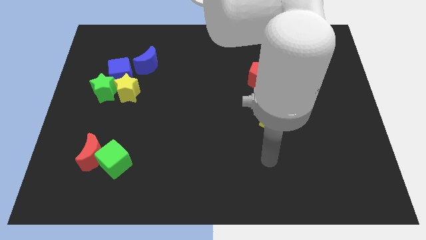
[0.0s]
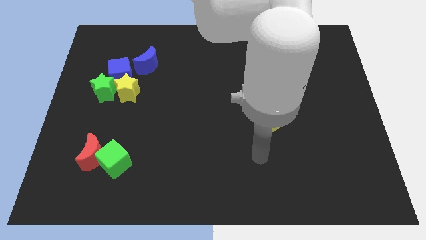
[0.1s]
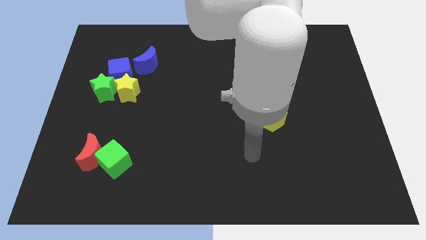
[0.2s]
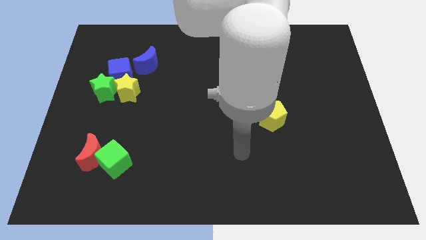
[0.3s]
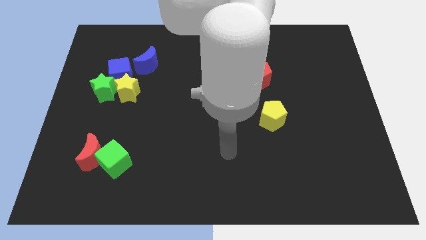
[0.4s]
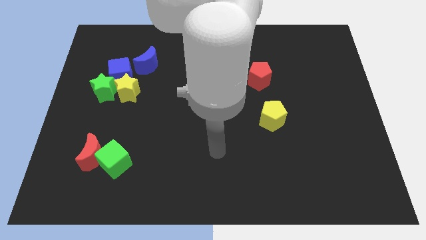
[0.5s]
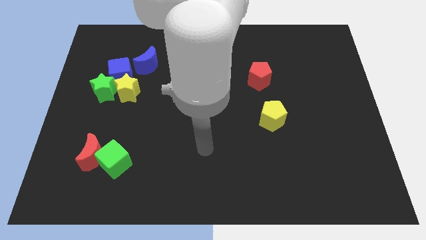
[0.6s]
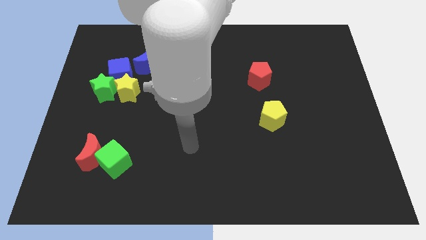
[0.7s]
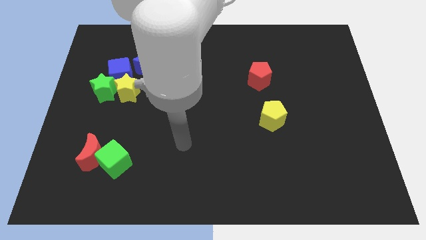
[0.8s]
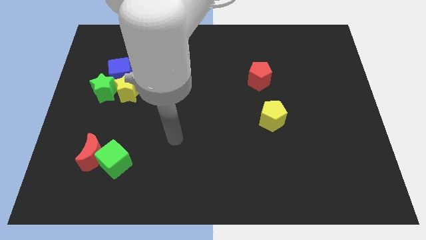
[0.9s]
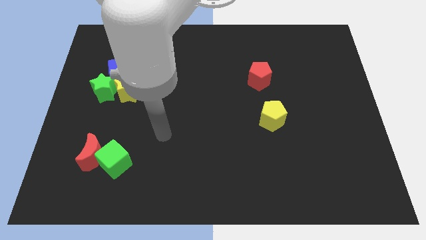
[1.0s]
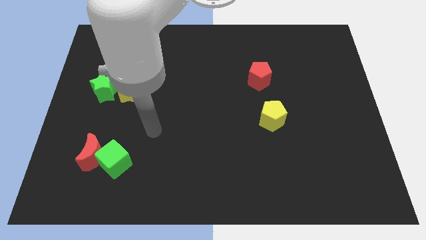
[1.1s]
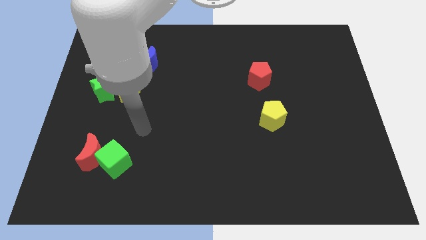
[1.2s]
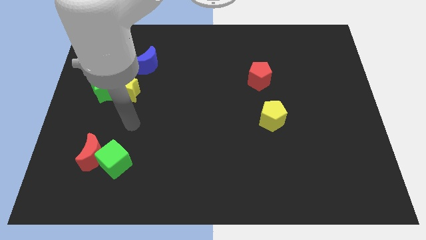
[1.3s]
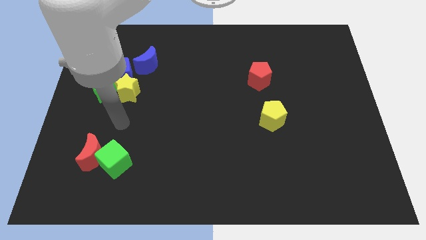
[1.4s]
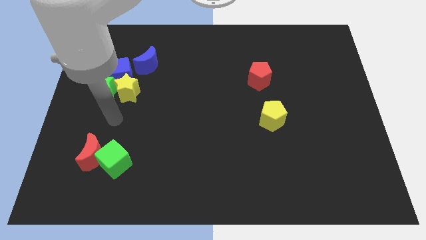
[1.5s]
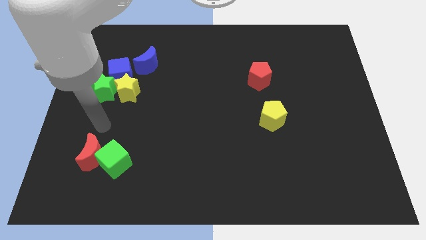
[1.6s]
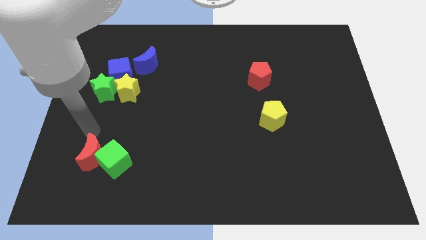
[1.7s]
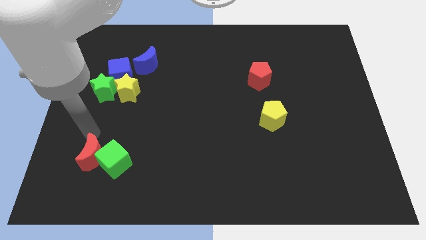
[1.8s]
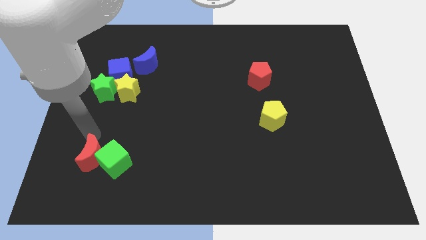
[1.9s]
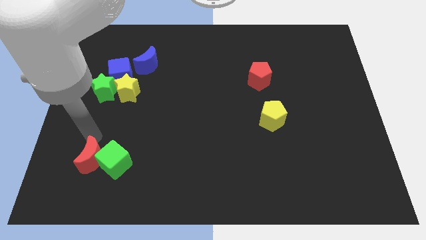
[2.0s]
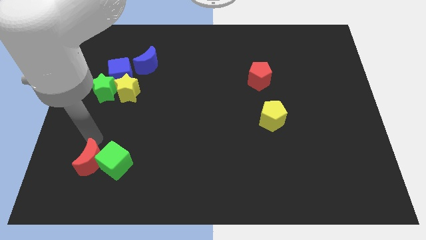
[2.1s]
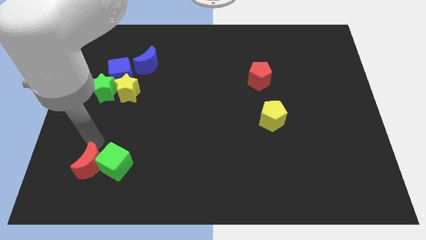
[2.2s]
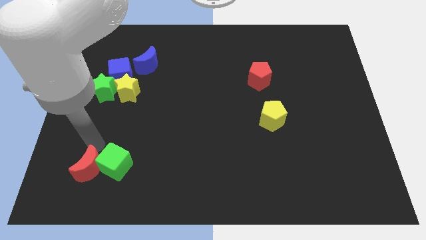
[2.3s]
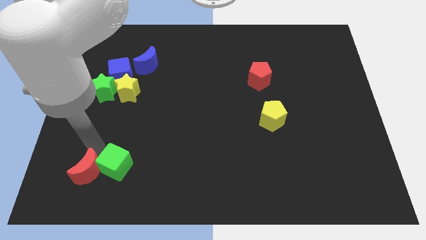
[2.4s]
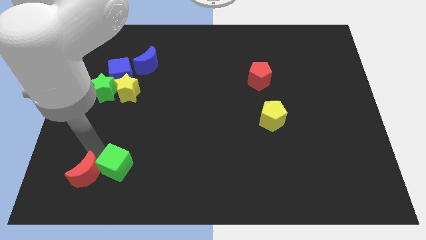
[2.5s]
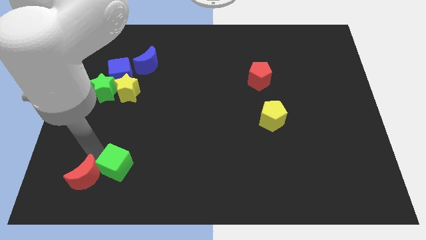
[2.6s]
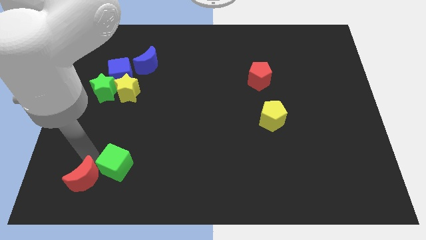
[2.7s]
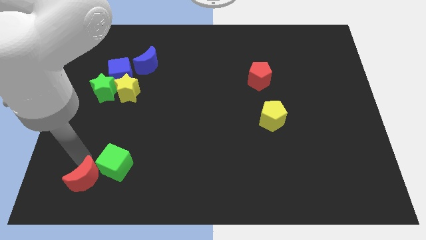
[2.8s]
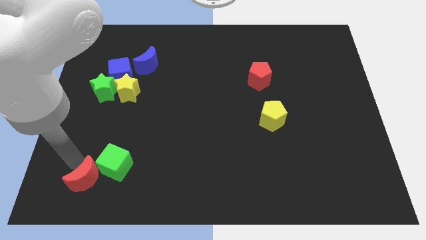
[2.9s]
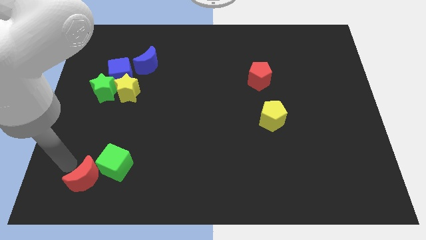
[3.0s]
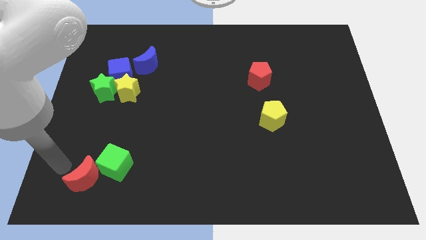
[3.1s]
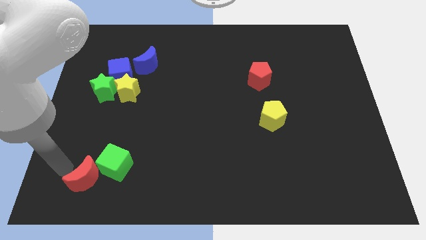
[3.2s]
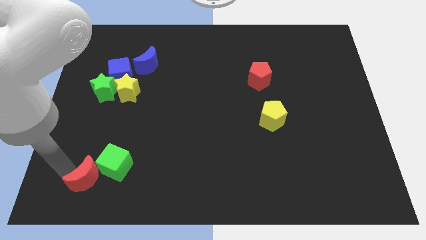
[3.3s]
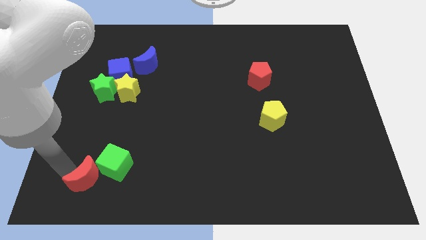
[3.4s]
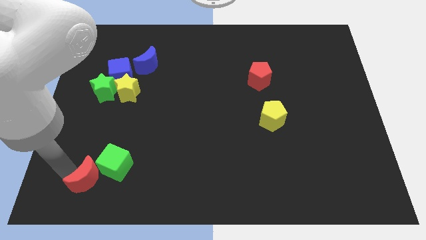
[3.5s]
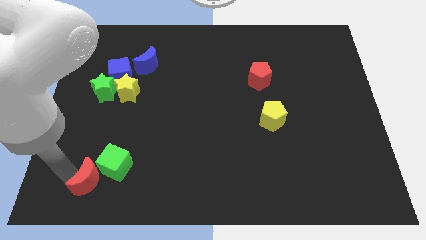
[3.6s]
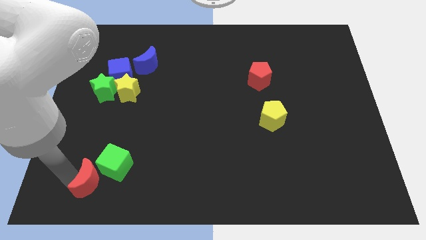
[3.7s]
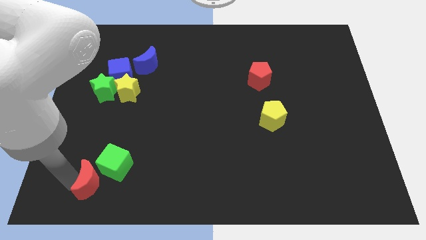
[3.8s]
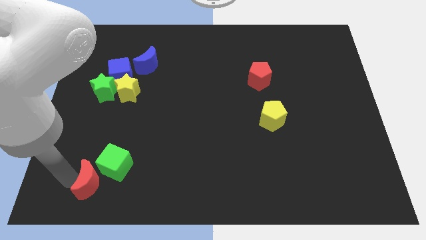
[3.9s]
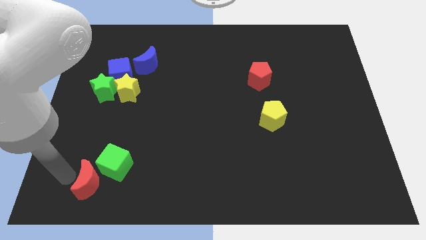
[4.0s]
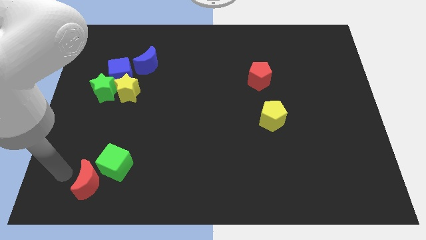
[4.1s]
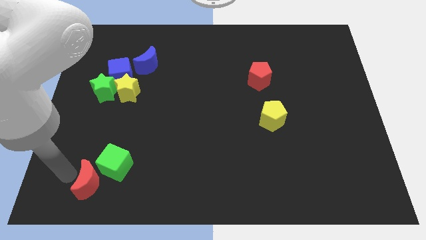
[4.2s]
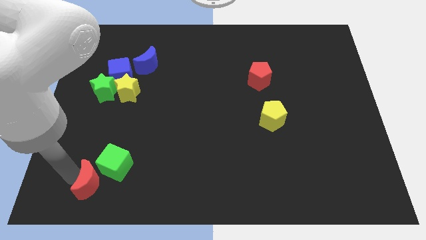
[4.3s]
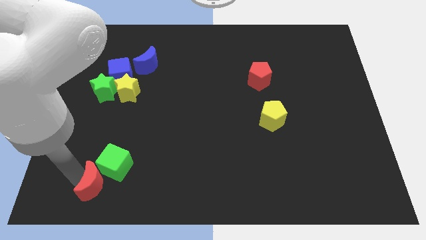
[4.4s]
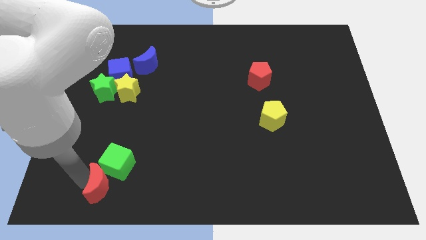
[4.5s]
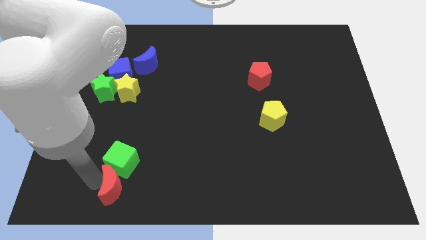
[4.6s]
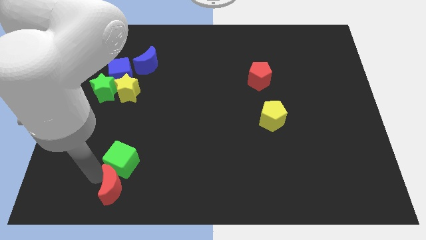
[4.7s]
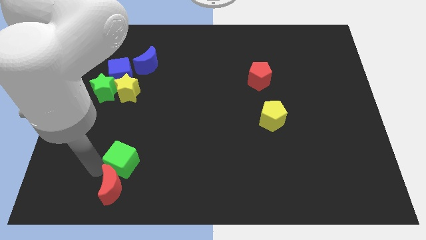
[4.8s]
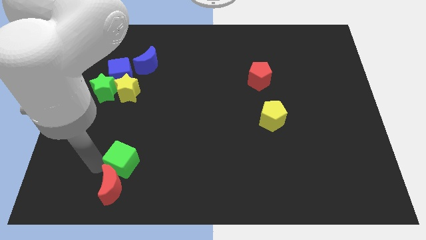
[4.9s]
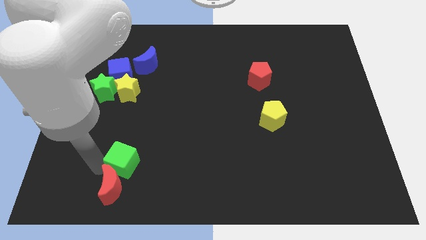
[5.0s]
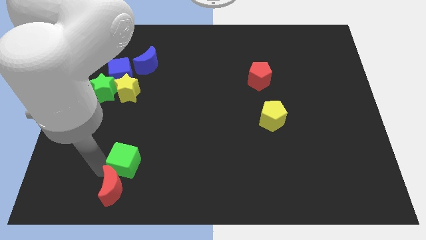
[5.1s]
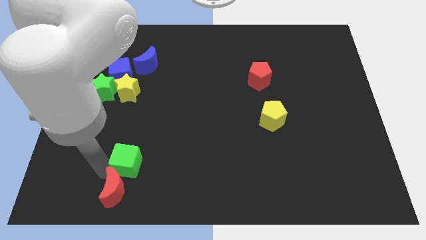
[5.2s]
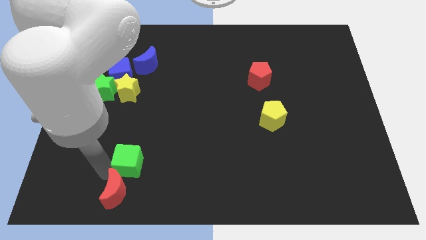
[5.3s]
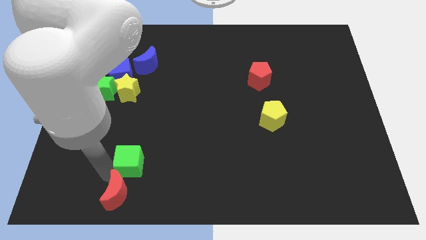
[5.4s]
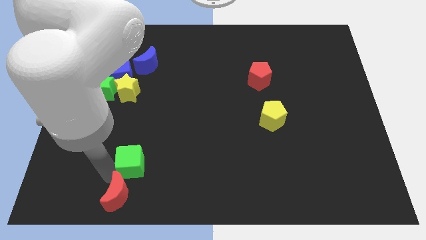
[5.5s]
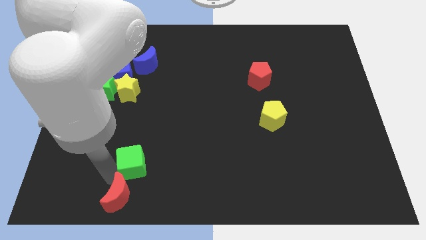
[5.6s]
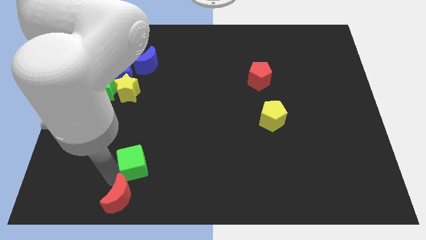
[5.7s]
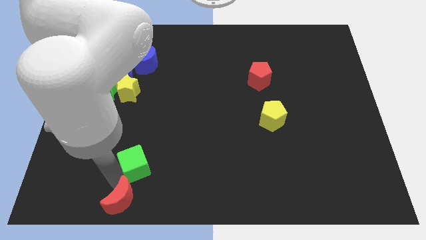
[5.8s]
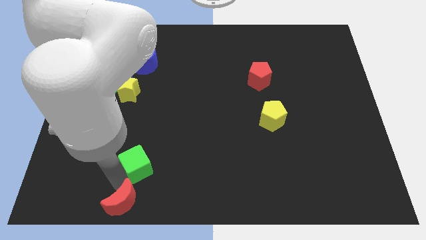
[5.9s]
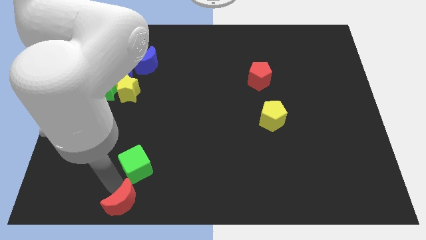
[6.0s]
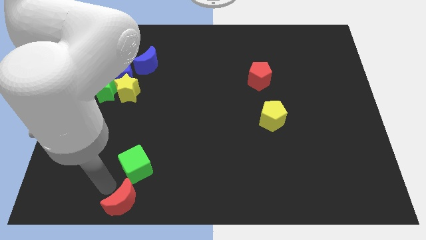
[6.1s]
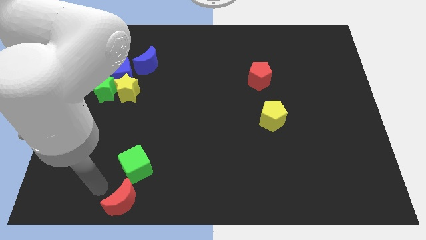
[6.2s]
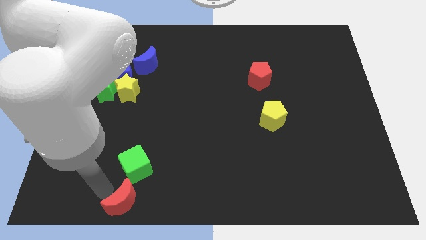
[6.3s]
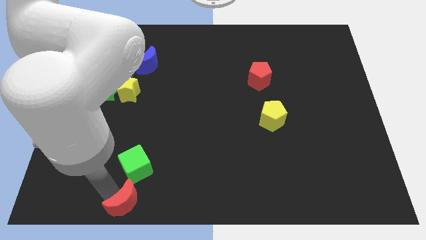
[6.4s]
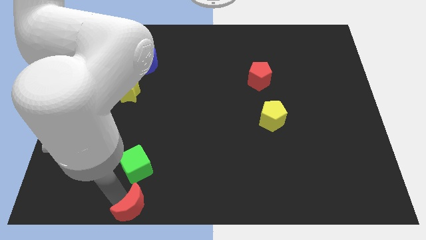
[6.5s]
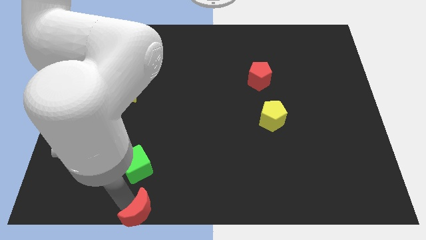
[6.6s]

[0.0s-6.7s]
put the red moon to the bottom side
